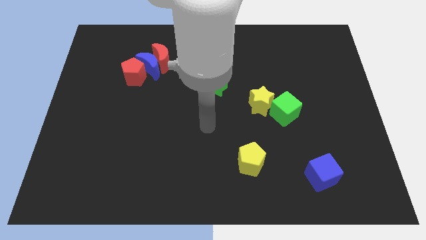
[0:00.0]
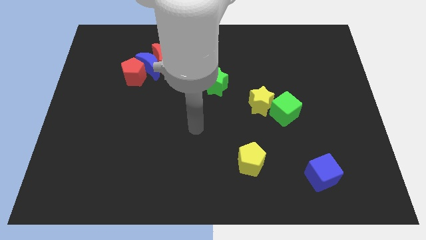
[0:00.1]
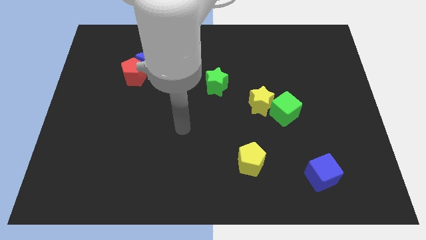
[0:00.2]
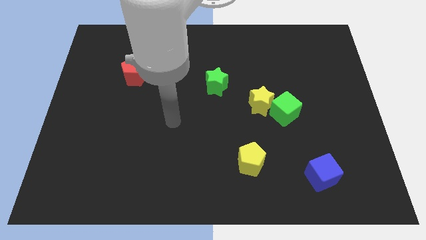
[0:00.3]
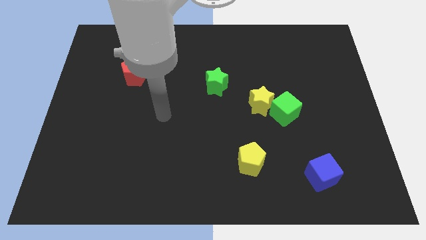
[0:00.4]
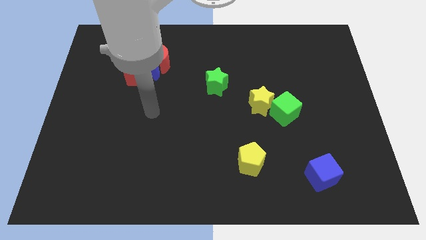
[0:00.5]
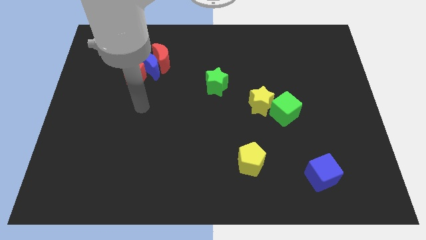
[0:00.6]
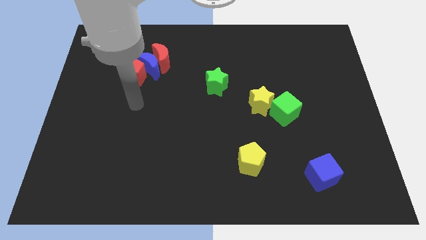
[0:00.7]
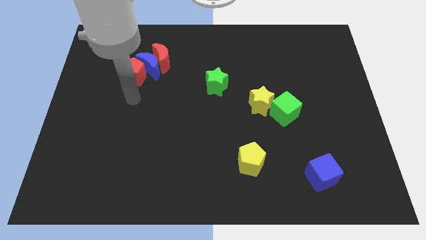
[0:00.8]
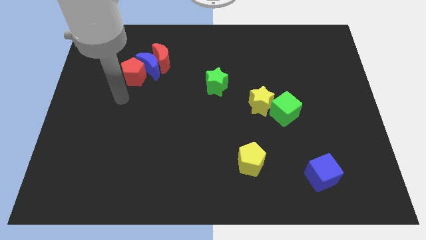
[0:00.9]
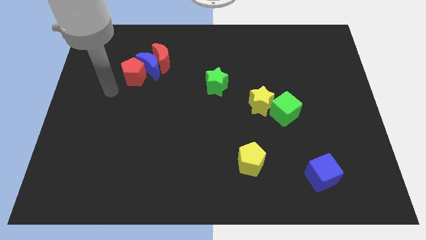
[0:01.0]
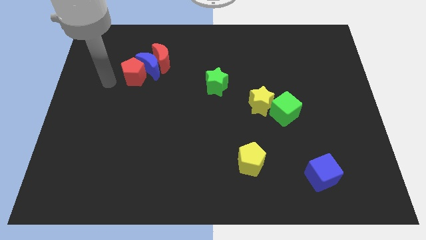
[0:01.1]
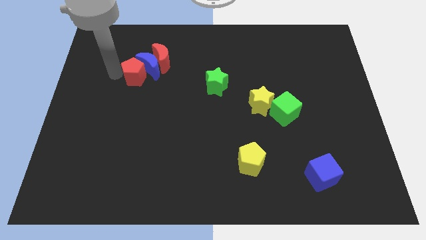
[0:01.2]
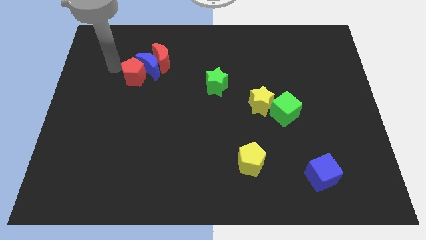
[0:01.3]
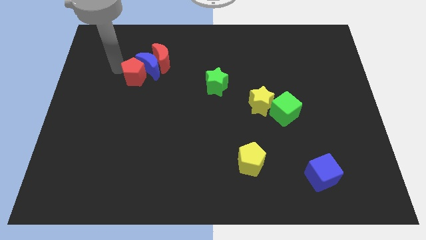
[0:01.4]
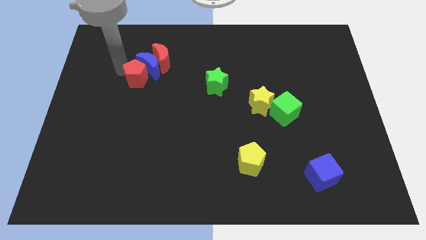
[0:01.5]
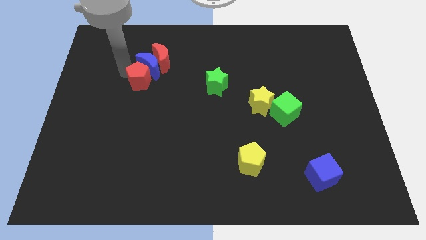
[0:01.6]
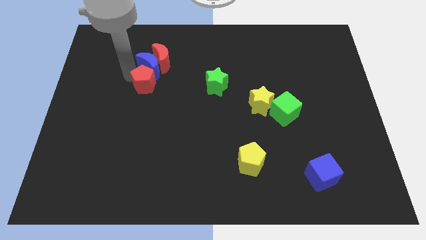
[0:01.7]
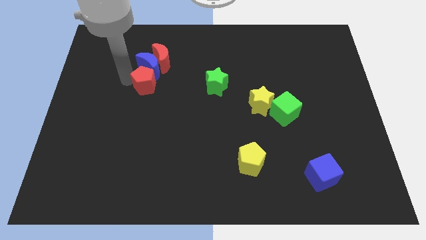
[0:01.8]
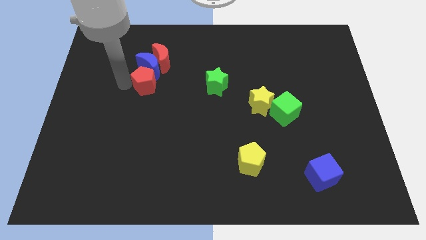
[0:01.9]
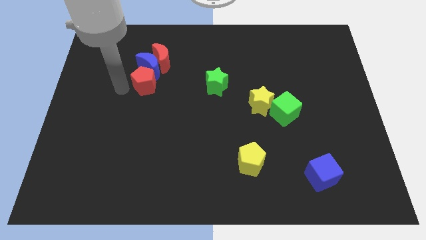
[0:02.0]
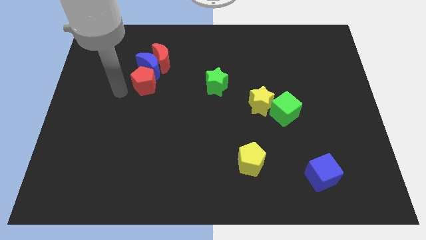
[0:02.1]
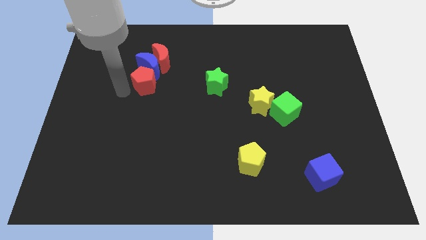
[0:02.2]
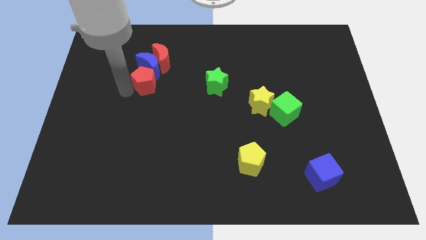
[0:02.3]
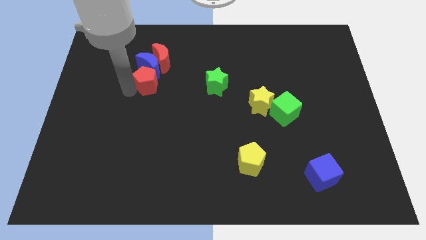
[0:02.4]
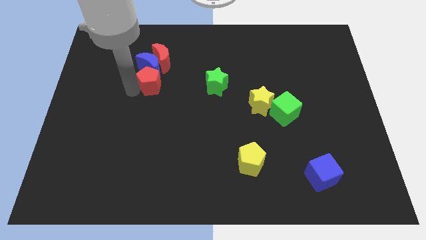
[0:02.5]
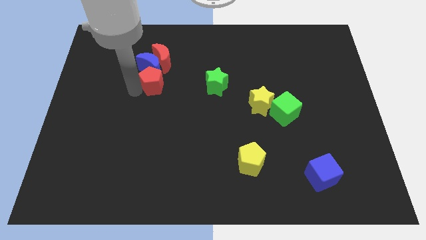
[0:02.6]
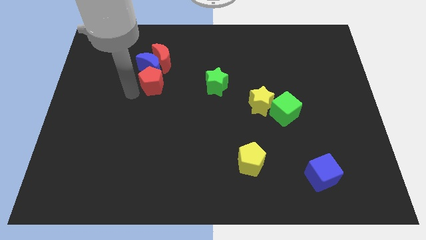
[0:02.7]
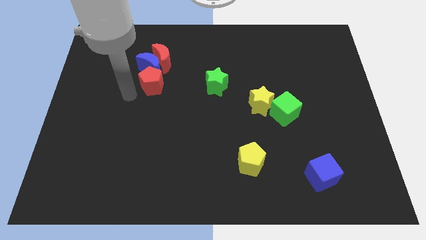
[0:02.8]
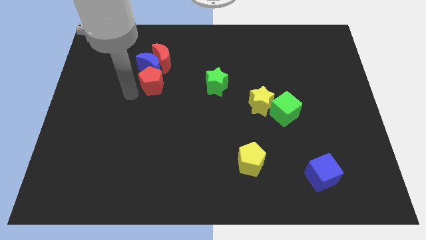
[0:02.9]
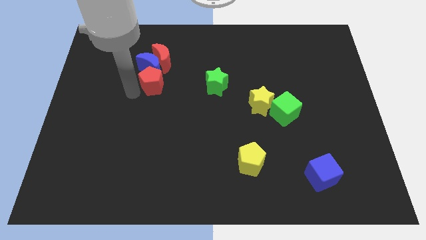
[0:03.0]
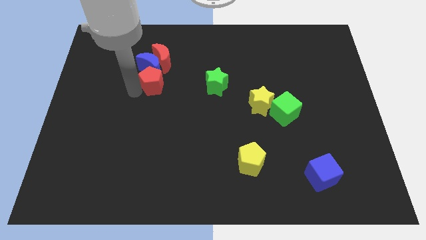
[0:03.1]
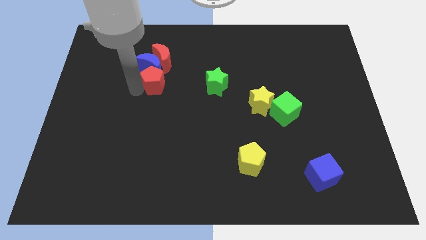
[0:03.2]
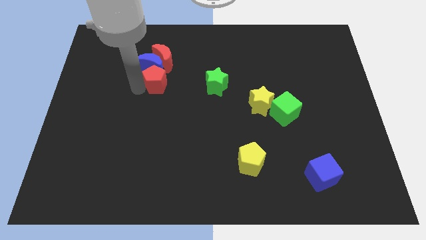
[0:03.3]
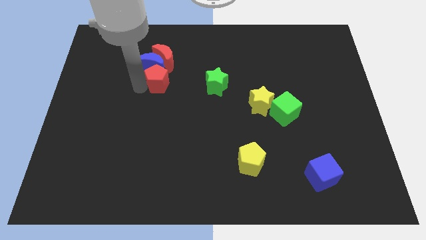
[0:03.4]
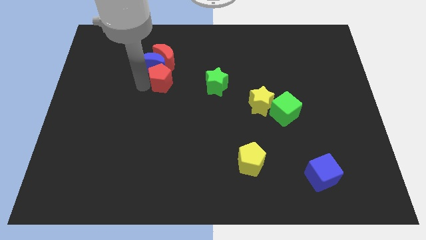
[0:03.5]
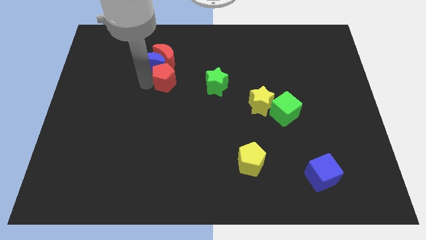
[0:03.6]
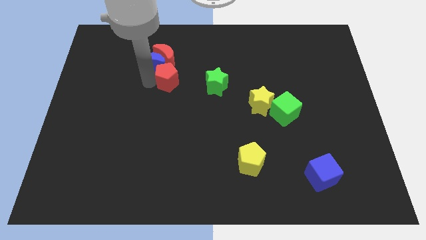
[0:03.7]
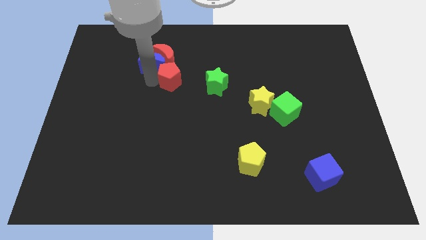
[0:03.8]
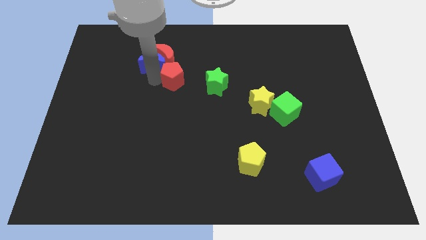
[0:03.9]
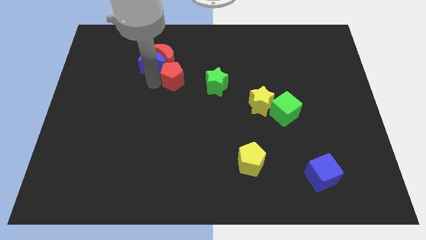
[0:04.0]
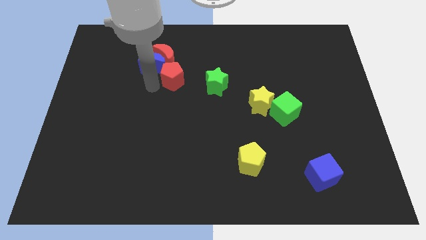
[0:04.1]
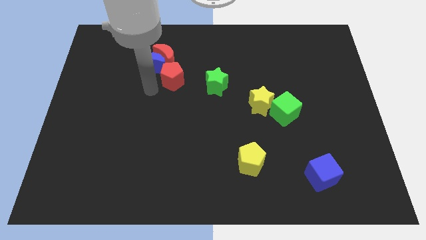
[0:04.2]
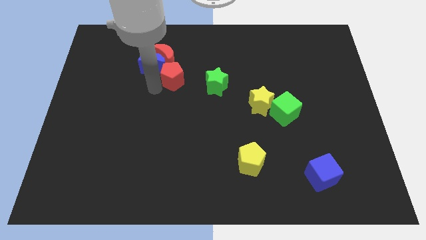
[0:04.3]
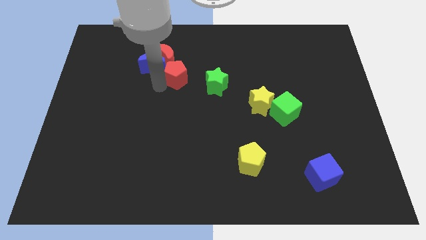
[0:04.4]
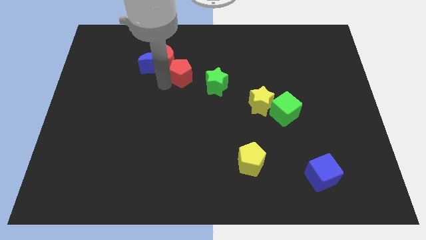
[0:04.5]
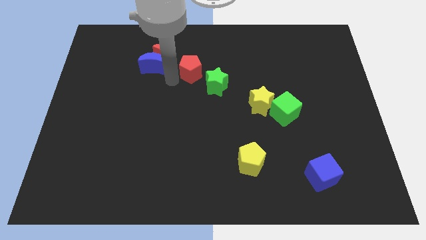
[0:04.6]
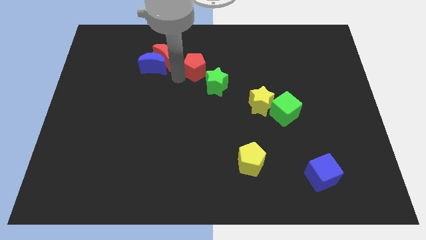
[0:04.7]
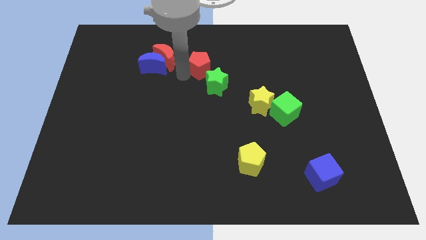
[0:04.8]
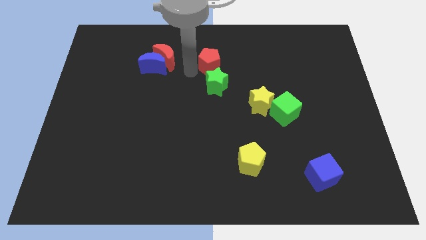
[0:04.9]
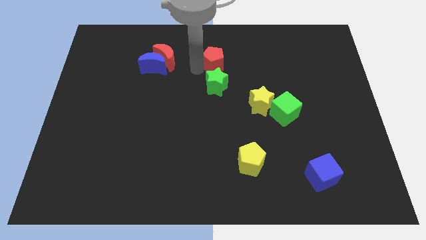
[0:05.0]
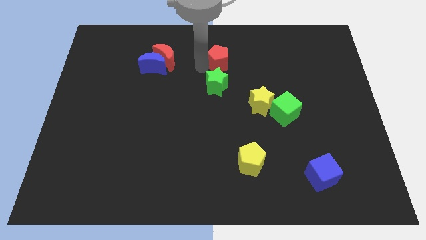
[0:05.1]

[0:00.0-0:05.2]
move the red pentagon to the right

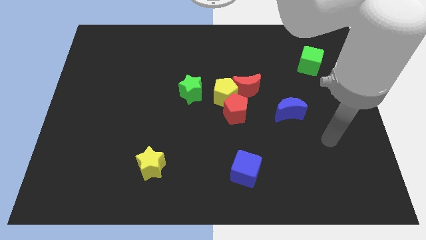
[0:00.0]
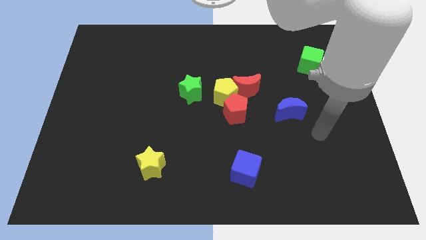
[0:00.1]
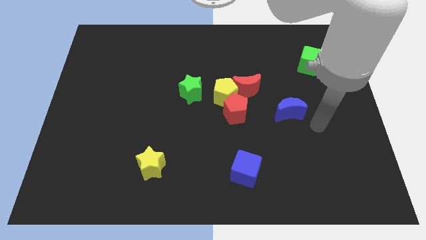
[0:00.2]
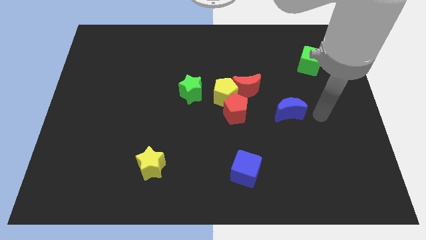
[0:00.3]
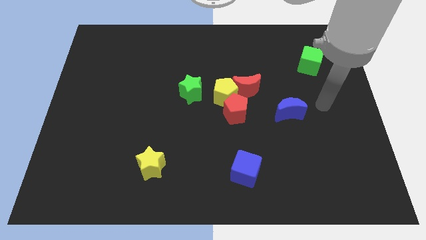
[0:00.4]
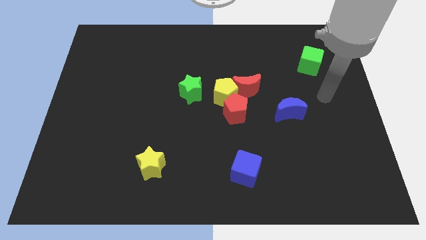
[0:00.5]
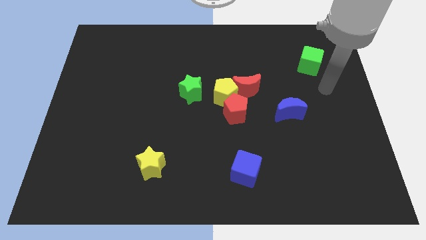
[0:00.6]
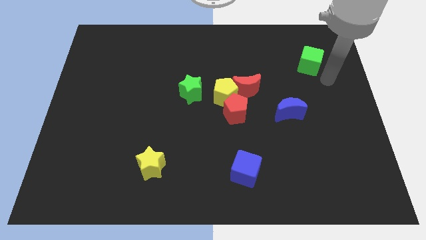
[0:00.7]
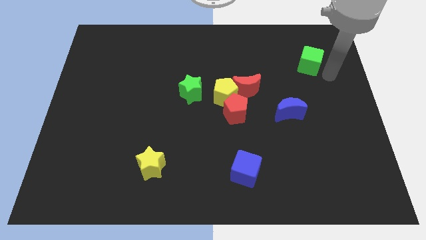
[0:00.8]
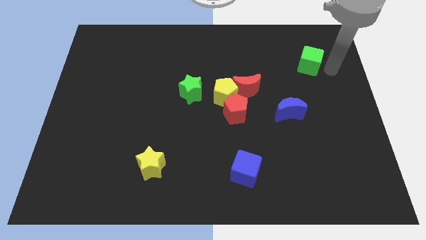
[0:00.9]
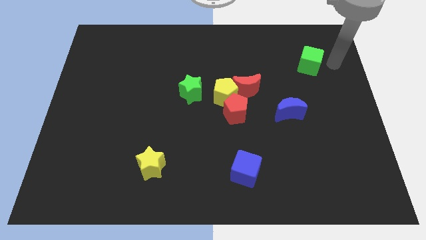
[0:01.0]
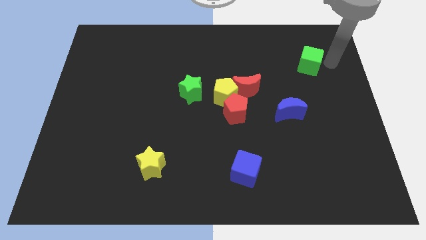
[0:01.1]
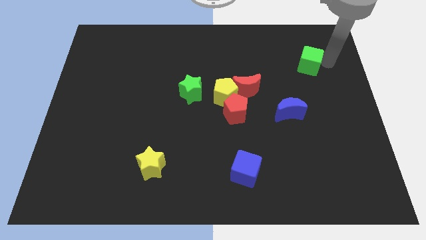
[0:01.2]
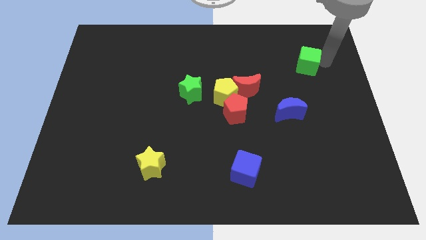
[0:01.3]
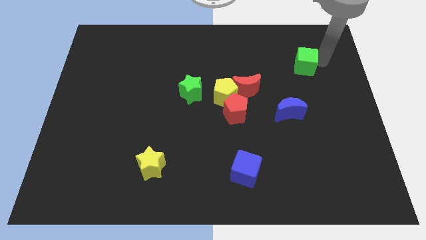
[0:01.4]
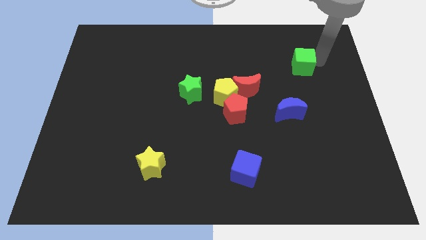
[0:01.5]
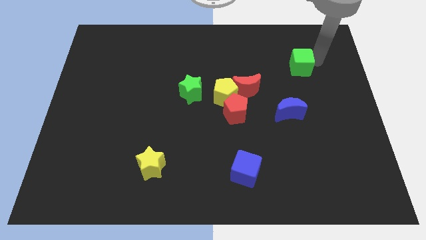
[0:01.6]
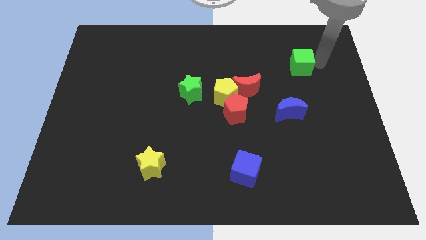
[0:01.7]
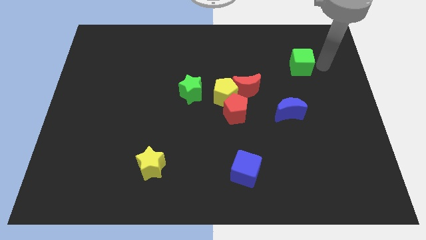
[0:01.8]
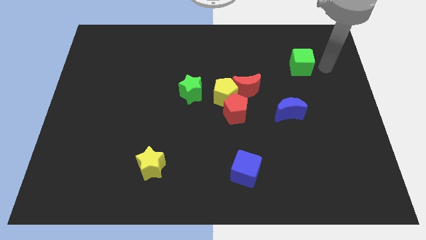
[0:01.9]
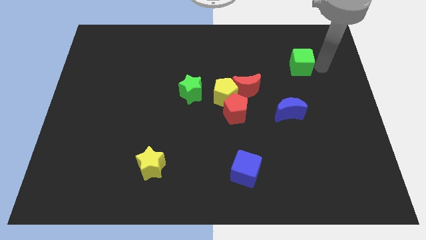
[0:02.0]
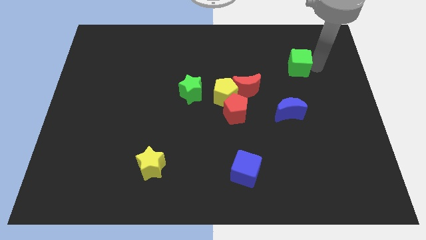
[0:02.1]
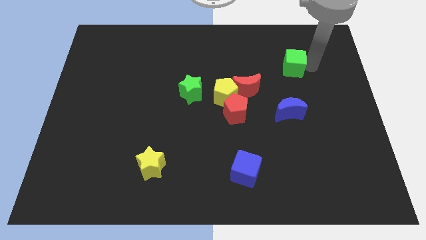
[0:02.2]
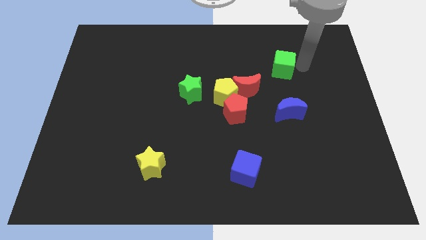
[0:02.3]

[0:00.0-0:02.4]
slightly slide the green cube left

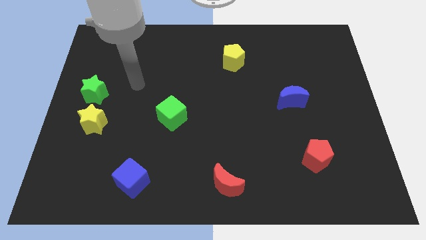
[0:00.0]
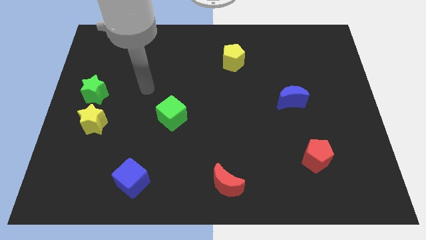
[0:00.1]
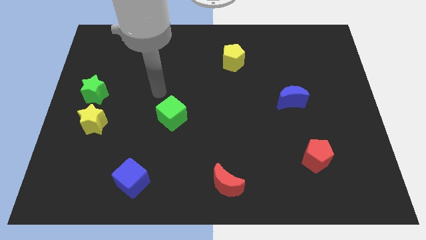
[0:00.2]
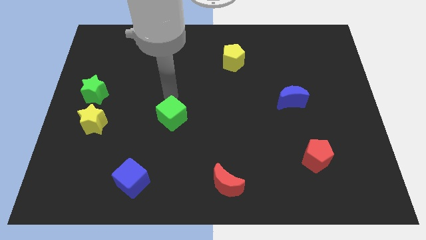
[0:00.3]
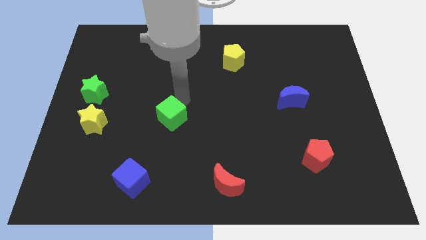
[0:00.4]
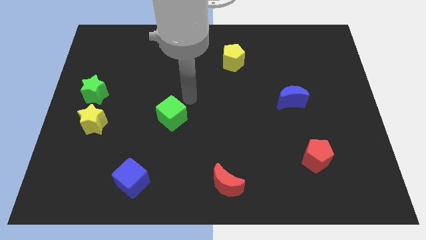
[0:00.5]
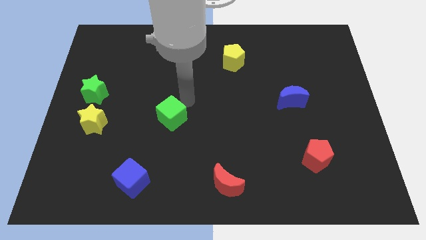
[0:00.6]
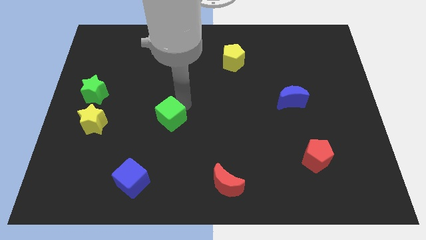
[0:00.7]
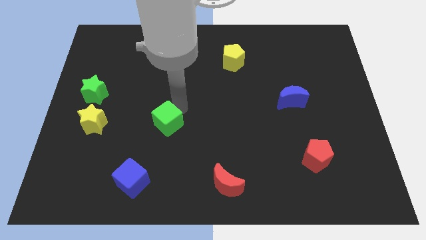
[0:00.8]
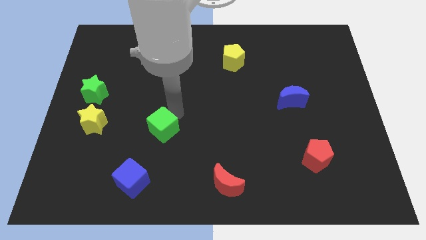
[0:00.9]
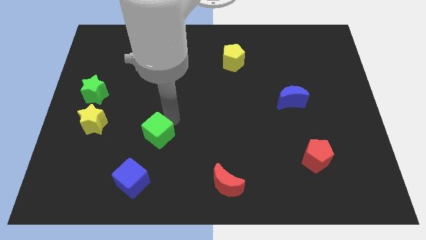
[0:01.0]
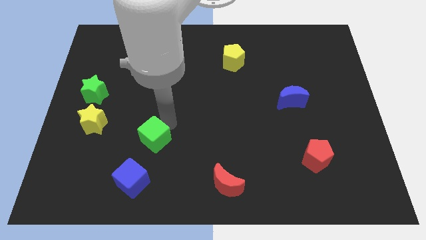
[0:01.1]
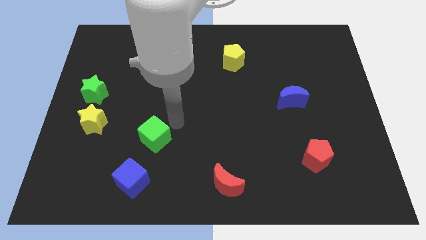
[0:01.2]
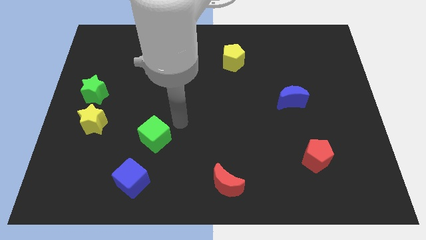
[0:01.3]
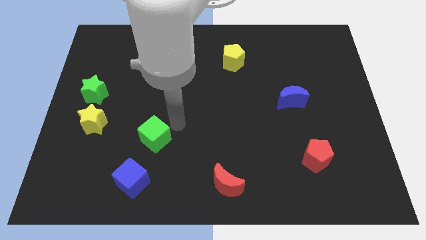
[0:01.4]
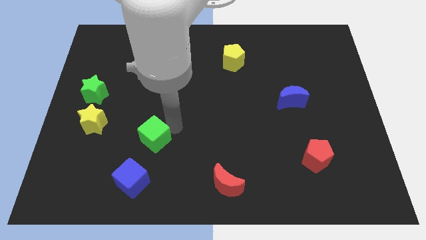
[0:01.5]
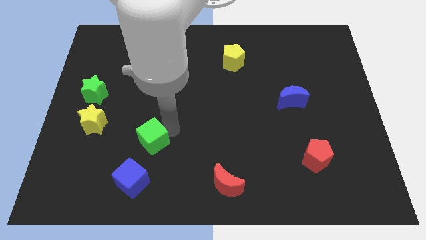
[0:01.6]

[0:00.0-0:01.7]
slightly push the green cube down and left
